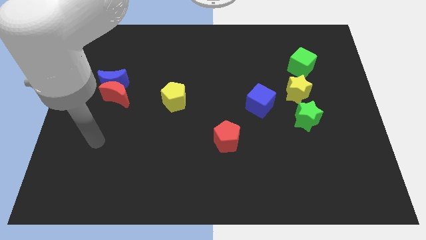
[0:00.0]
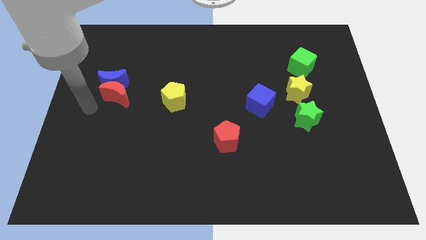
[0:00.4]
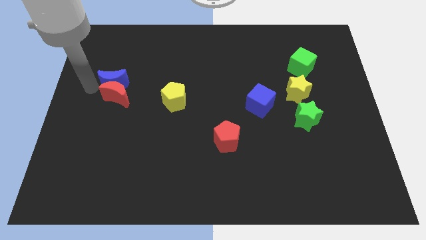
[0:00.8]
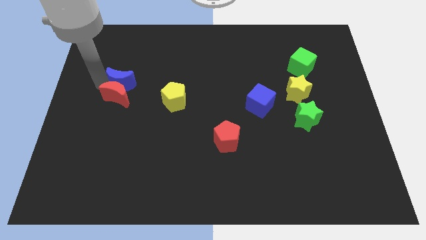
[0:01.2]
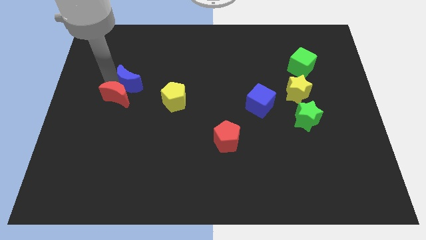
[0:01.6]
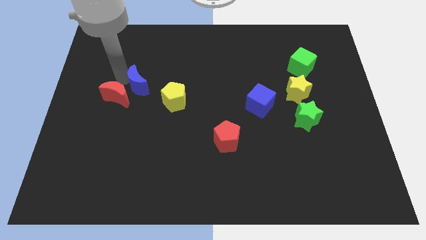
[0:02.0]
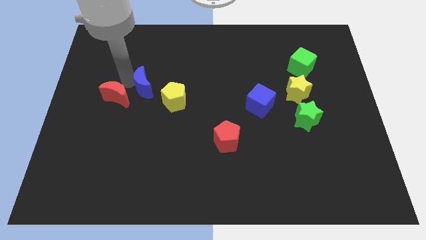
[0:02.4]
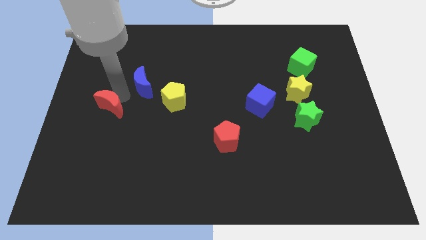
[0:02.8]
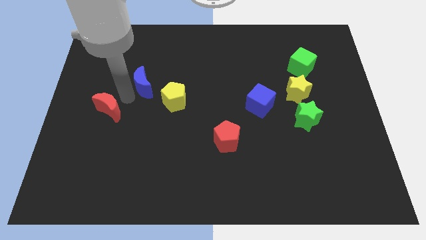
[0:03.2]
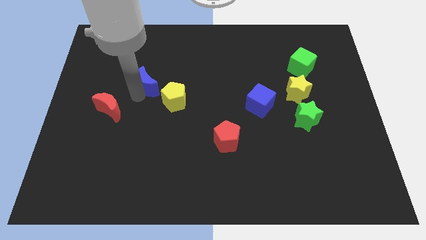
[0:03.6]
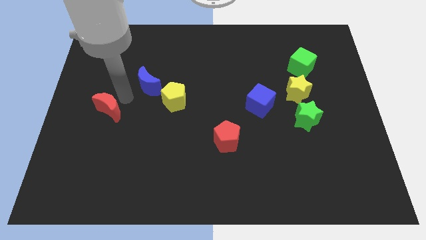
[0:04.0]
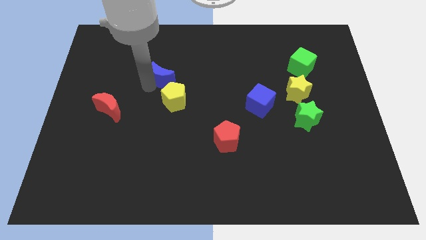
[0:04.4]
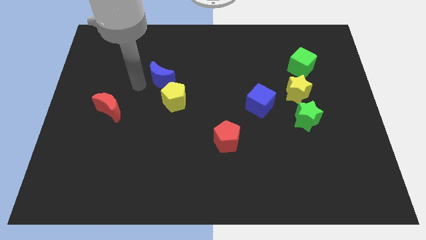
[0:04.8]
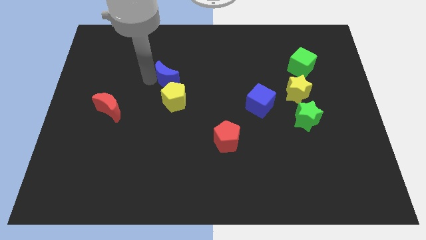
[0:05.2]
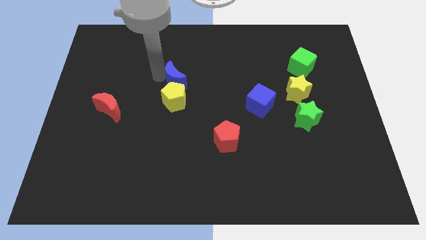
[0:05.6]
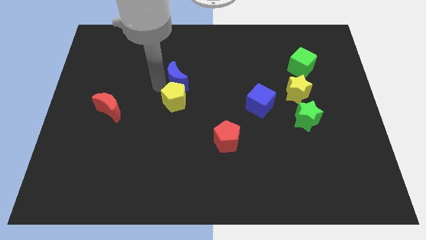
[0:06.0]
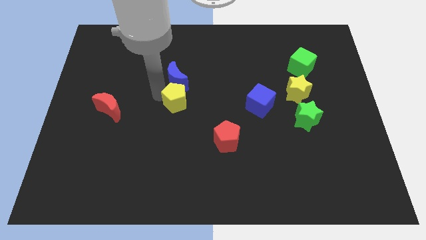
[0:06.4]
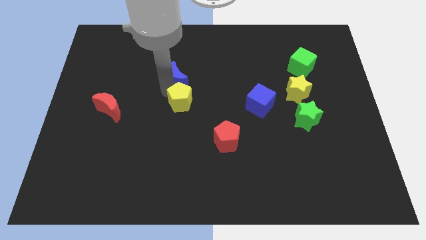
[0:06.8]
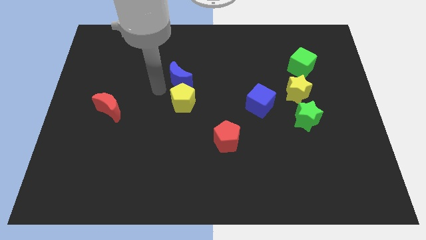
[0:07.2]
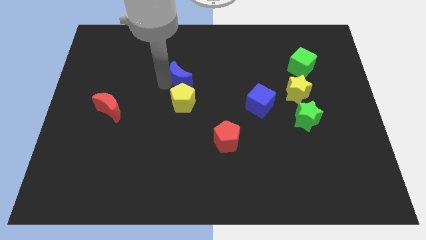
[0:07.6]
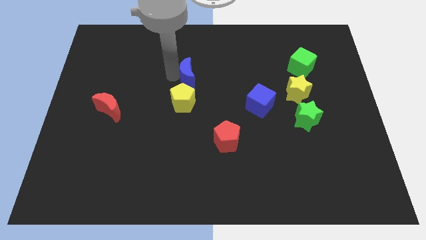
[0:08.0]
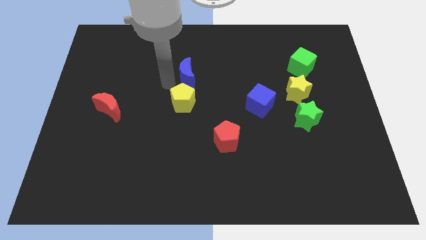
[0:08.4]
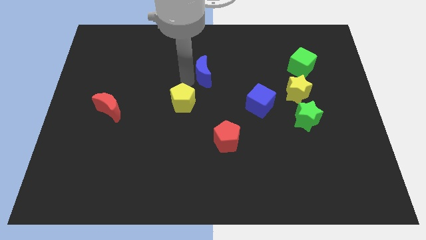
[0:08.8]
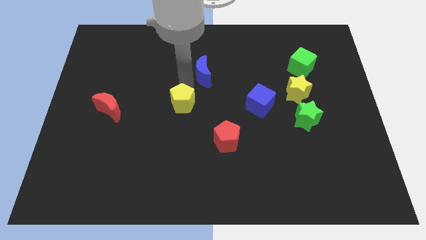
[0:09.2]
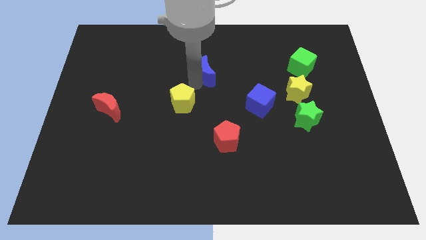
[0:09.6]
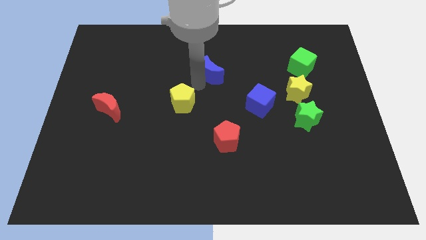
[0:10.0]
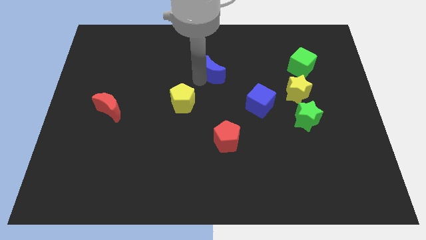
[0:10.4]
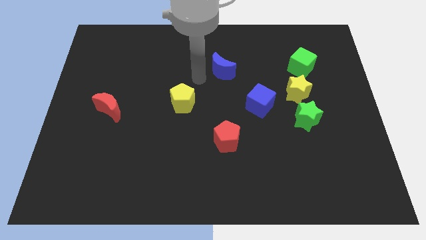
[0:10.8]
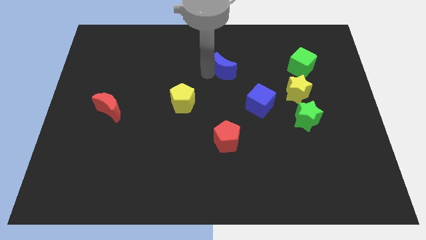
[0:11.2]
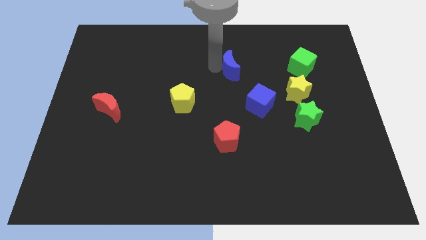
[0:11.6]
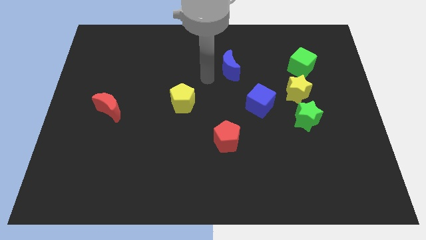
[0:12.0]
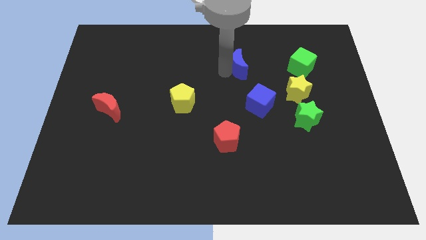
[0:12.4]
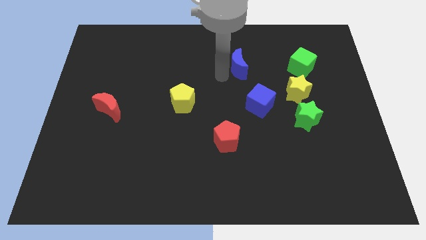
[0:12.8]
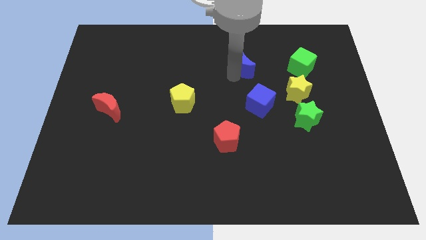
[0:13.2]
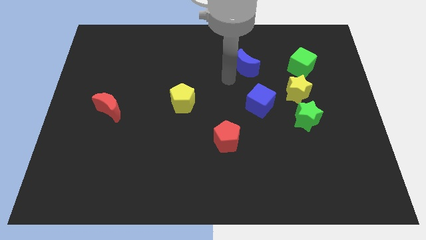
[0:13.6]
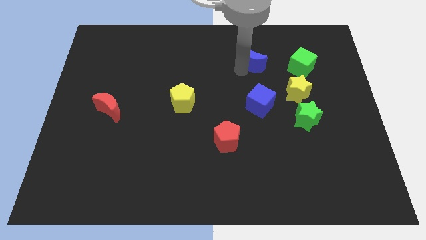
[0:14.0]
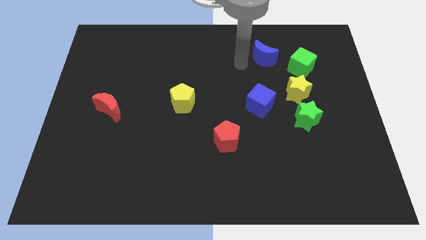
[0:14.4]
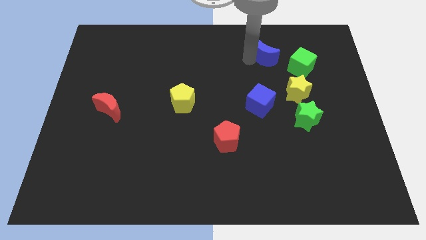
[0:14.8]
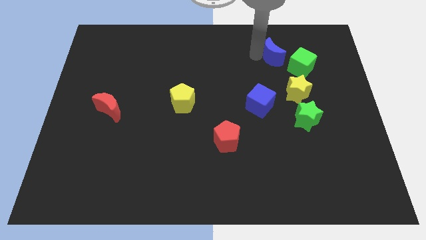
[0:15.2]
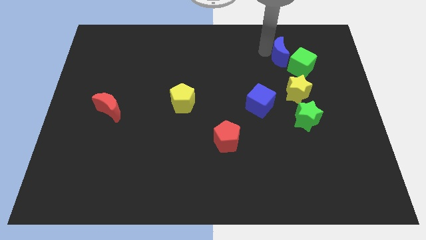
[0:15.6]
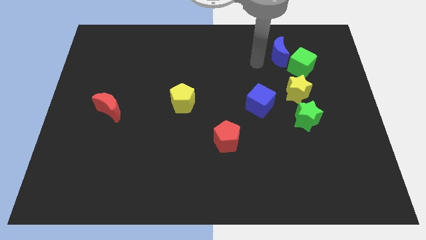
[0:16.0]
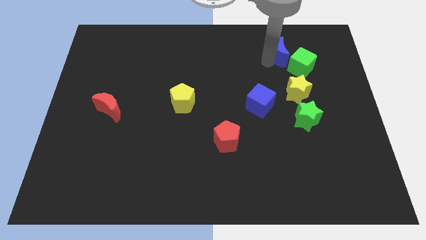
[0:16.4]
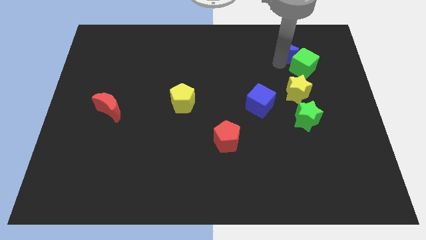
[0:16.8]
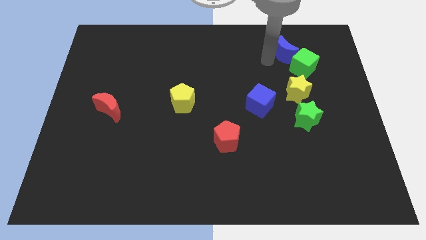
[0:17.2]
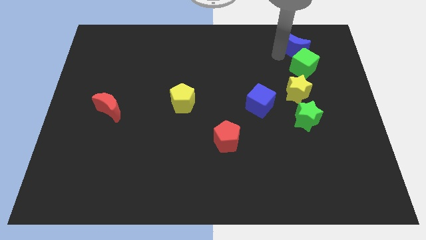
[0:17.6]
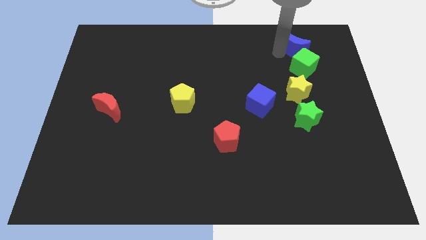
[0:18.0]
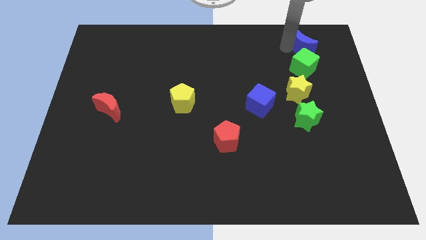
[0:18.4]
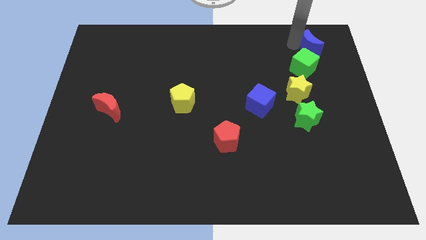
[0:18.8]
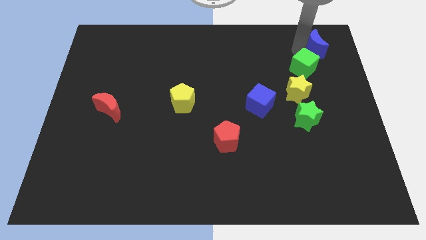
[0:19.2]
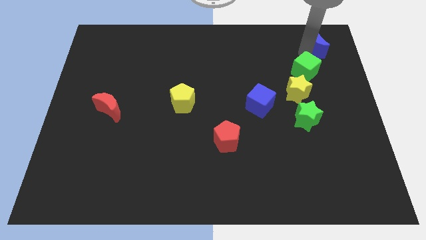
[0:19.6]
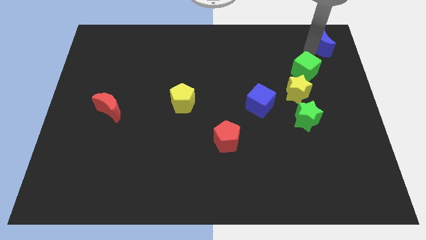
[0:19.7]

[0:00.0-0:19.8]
put the blue moon to the top right

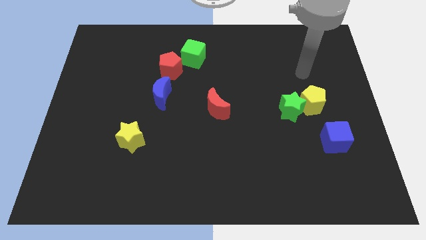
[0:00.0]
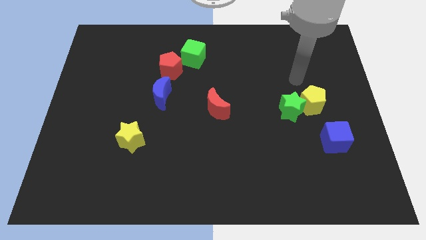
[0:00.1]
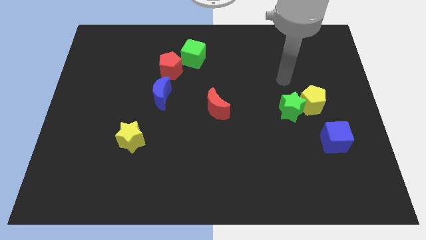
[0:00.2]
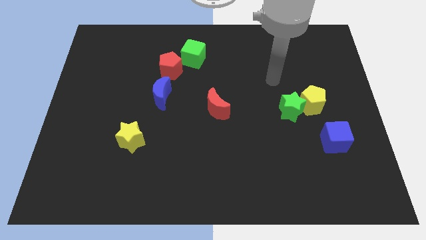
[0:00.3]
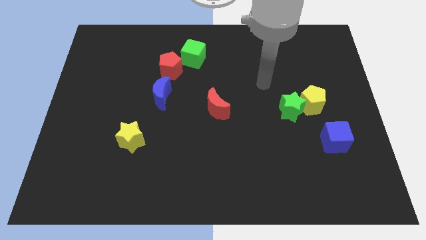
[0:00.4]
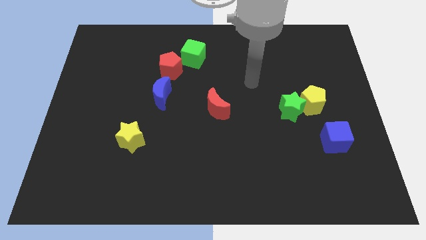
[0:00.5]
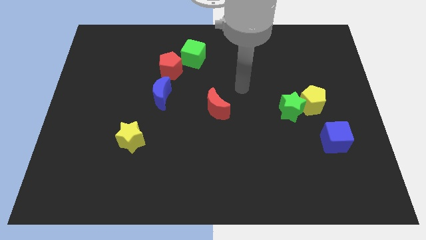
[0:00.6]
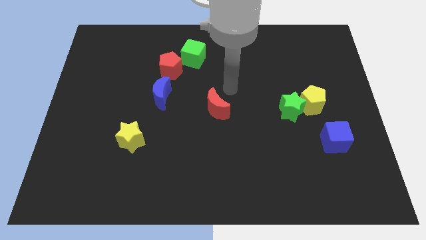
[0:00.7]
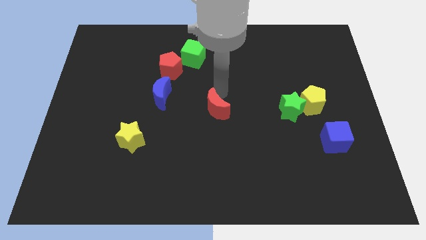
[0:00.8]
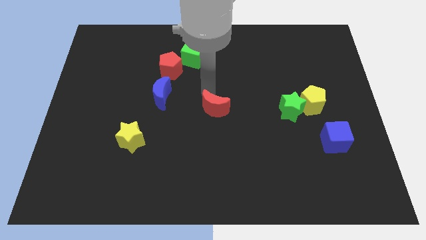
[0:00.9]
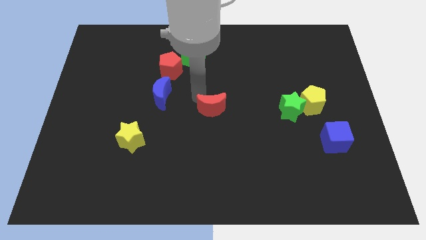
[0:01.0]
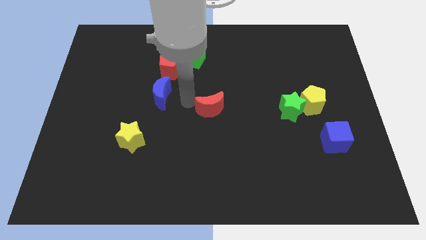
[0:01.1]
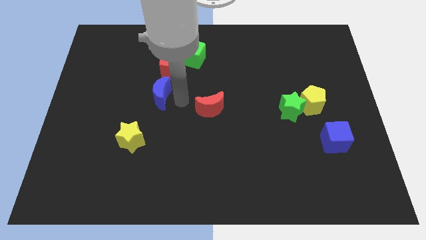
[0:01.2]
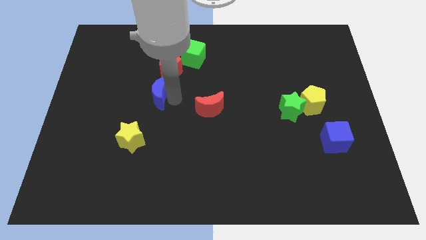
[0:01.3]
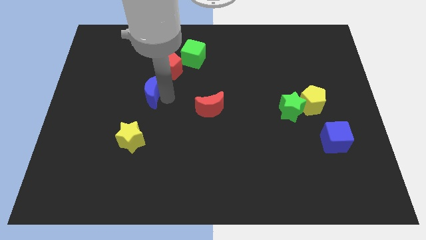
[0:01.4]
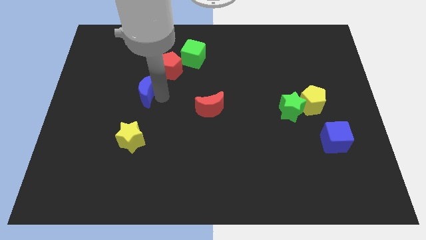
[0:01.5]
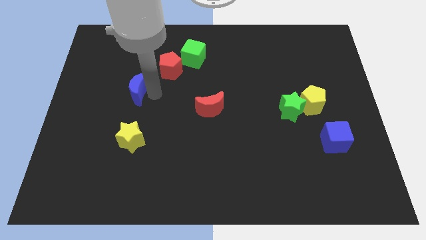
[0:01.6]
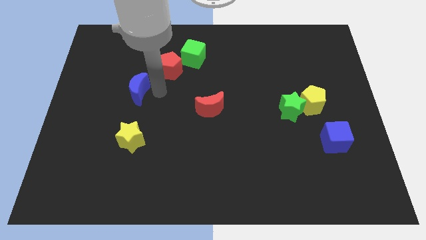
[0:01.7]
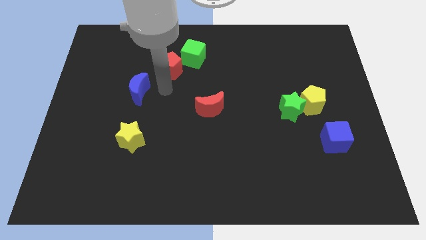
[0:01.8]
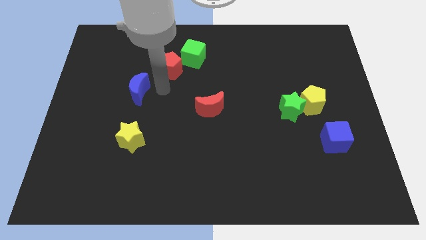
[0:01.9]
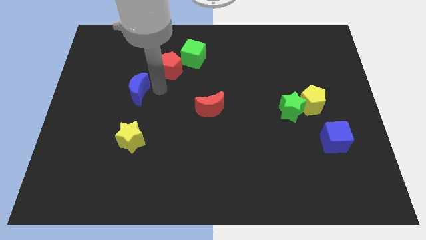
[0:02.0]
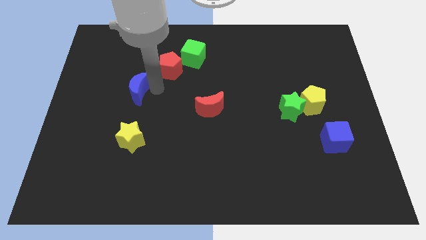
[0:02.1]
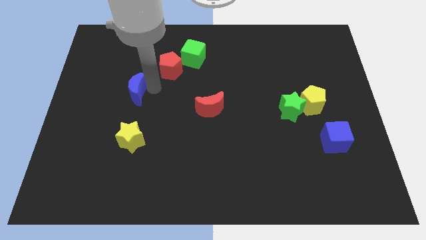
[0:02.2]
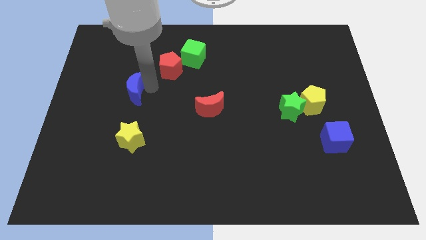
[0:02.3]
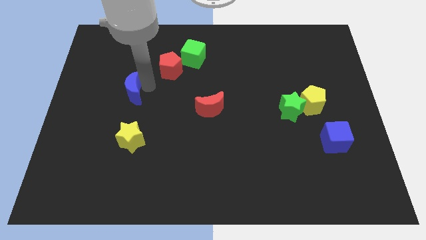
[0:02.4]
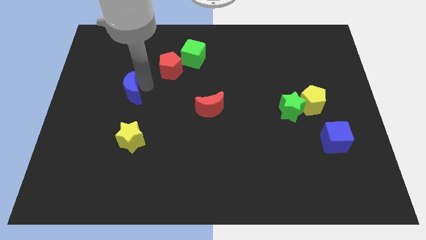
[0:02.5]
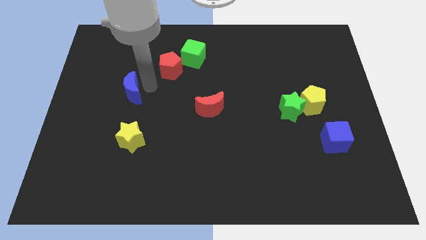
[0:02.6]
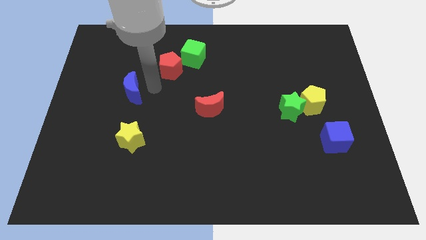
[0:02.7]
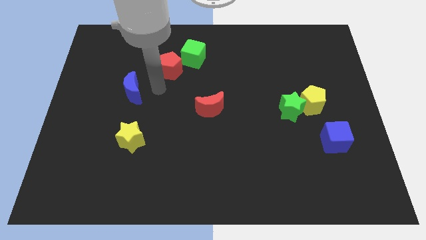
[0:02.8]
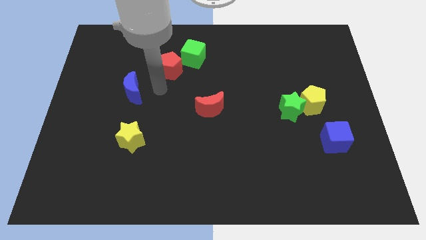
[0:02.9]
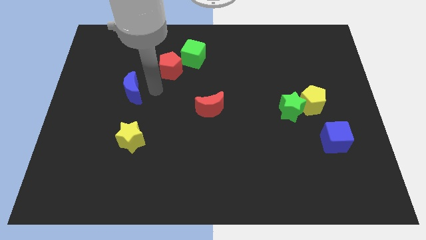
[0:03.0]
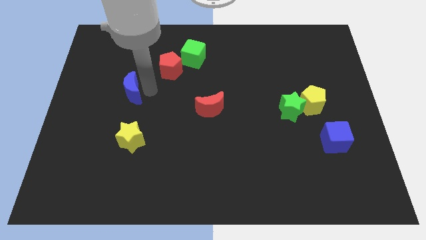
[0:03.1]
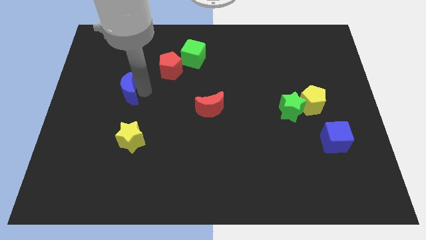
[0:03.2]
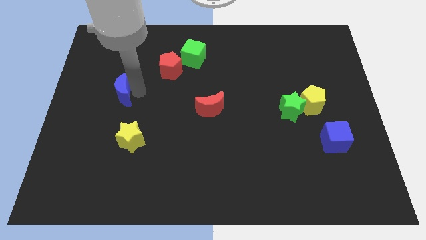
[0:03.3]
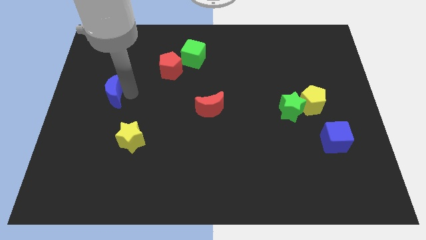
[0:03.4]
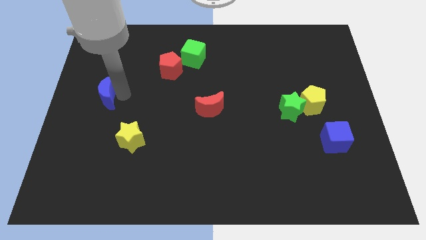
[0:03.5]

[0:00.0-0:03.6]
move the blue moon to the left side of the board
